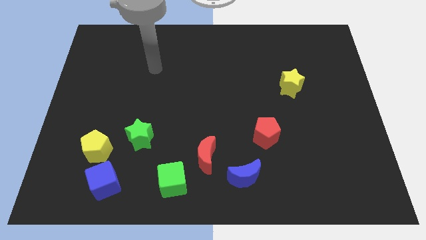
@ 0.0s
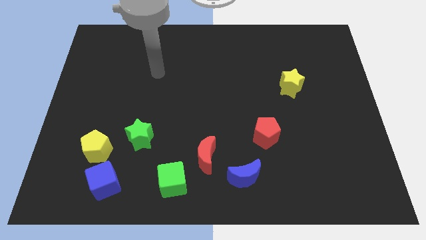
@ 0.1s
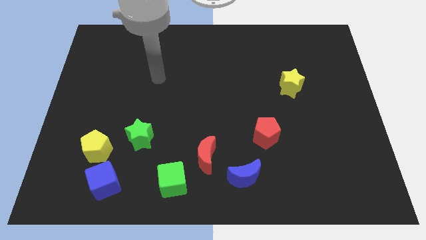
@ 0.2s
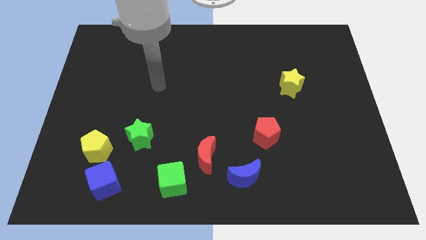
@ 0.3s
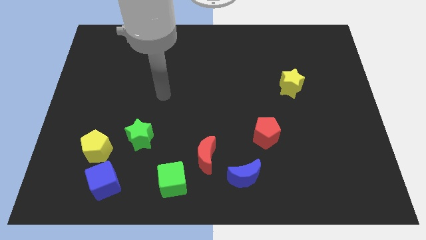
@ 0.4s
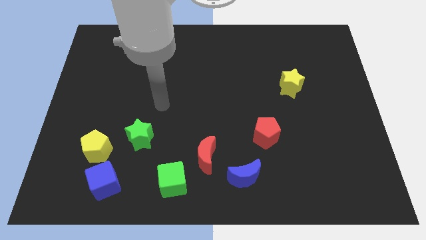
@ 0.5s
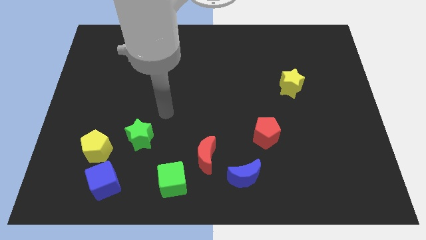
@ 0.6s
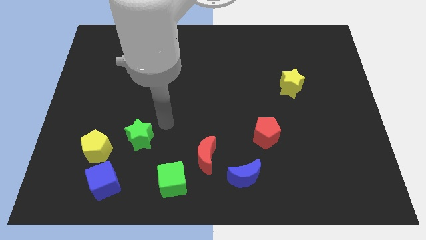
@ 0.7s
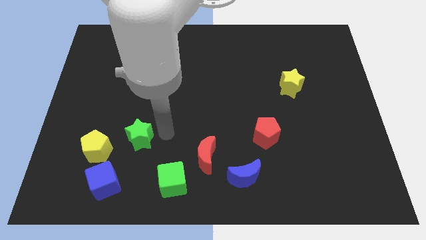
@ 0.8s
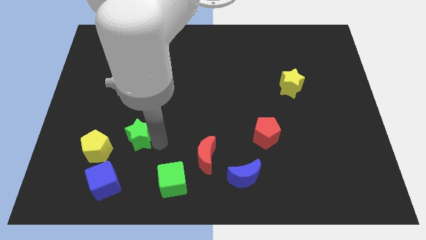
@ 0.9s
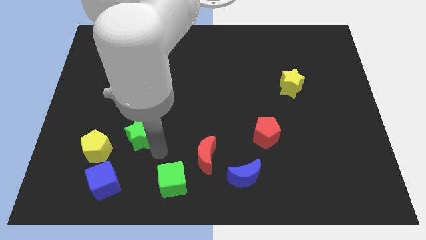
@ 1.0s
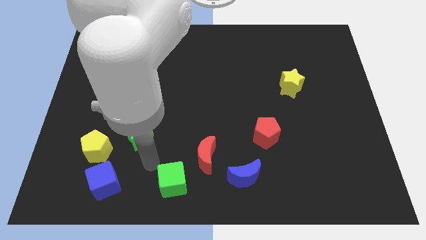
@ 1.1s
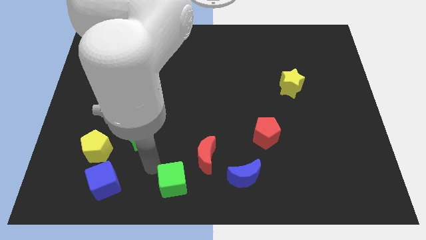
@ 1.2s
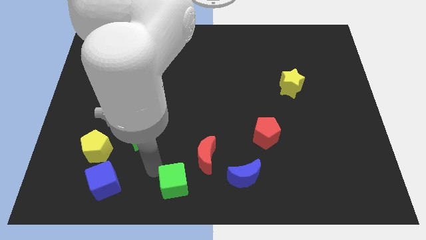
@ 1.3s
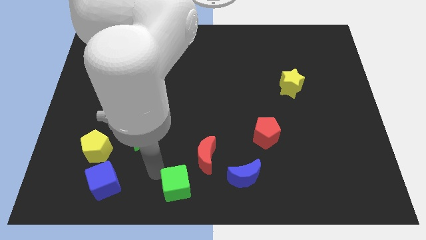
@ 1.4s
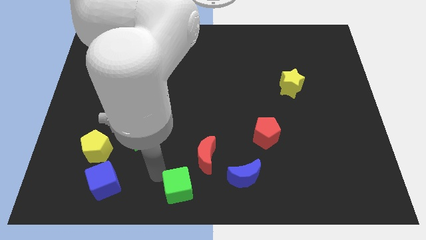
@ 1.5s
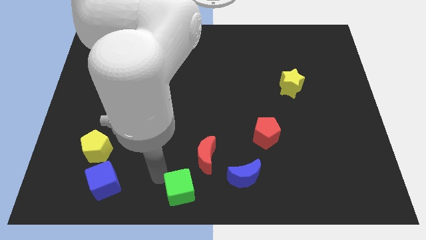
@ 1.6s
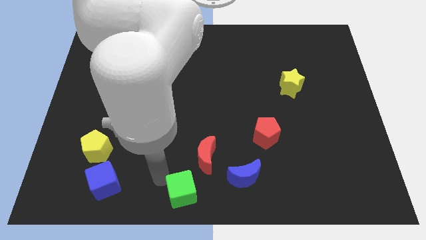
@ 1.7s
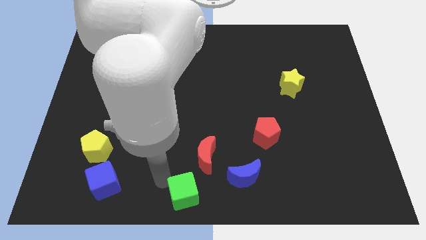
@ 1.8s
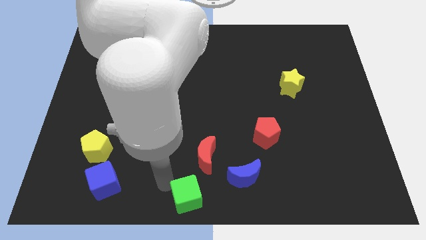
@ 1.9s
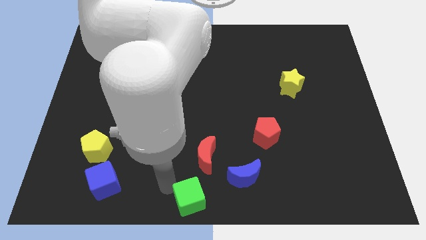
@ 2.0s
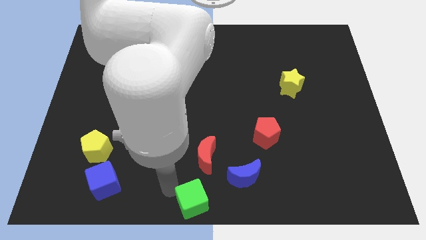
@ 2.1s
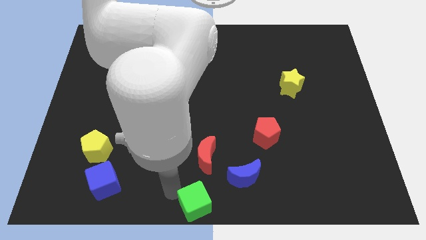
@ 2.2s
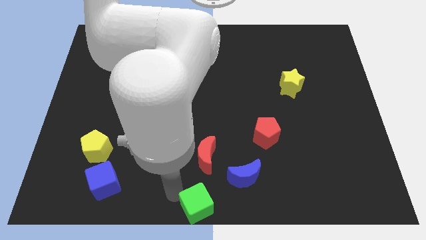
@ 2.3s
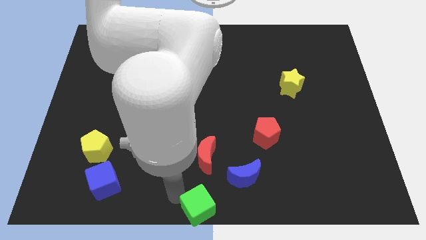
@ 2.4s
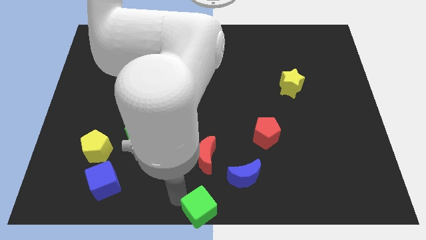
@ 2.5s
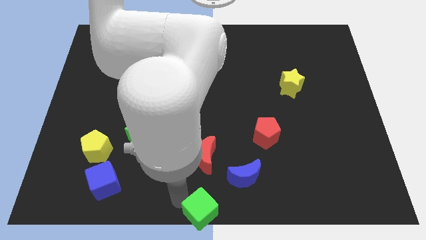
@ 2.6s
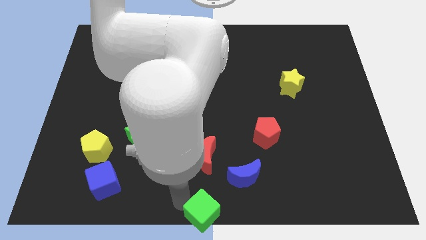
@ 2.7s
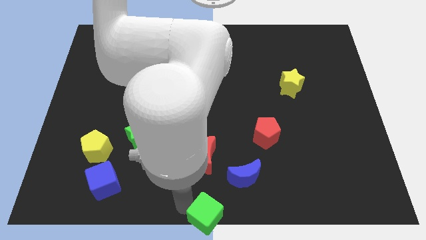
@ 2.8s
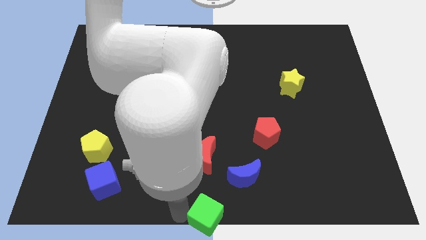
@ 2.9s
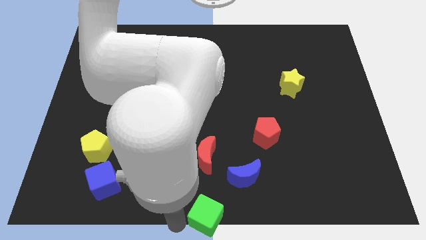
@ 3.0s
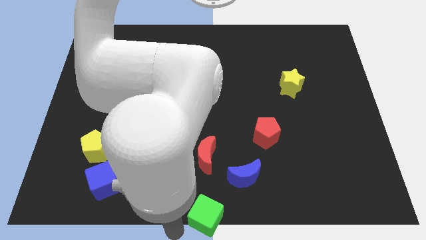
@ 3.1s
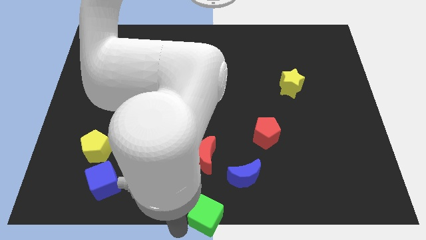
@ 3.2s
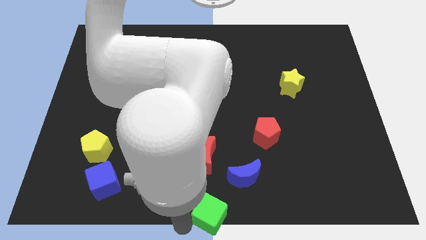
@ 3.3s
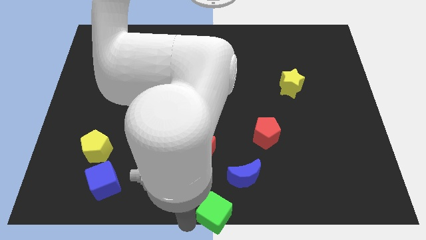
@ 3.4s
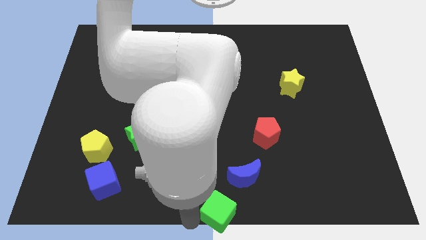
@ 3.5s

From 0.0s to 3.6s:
move the green cube right somewhat

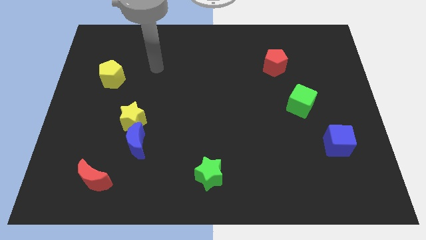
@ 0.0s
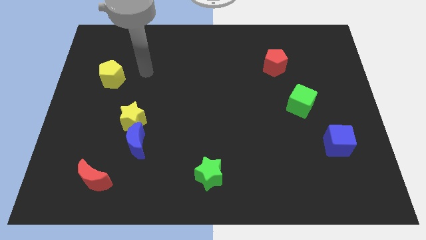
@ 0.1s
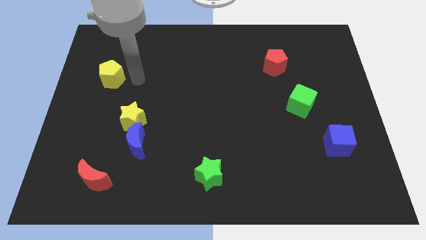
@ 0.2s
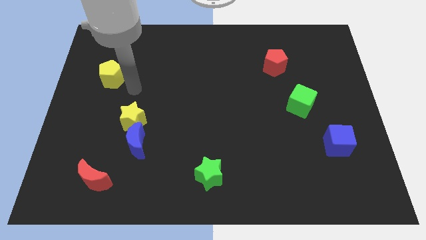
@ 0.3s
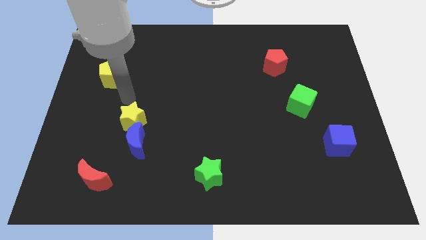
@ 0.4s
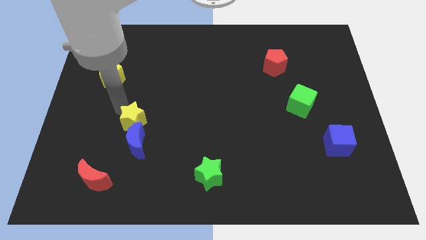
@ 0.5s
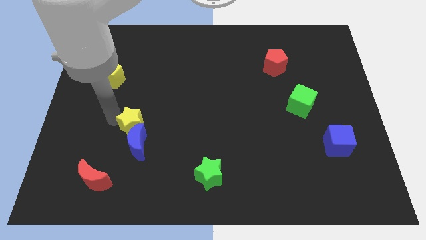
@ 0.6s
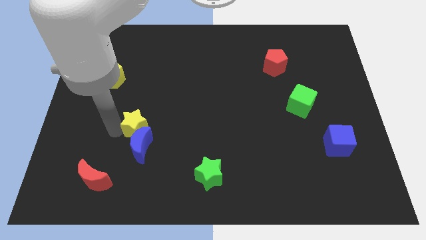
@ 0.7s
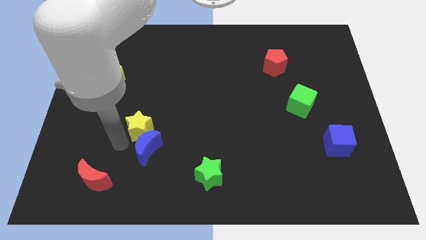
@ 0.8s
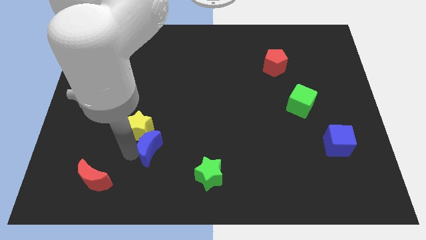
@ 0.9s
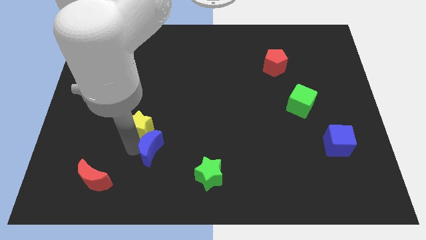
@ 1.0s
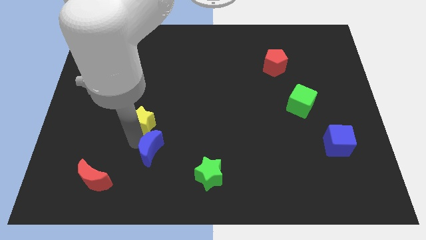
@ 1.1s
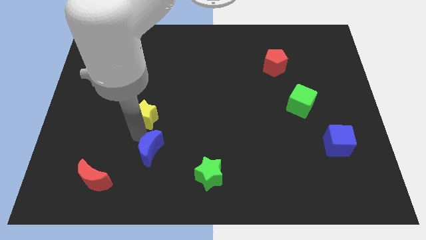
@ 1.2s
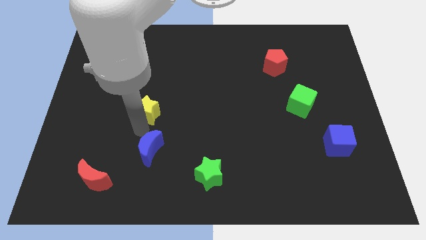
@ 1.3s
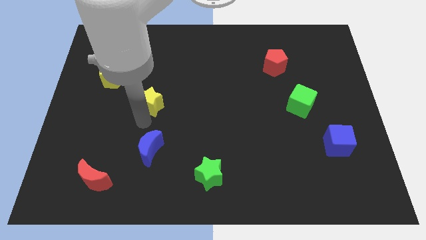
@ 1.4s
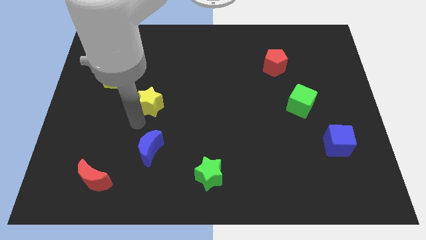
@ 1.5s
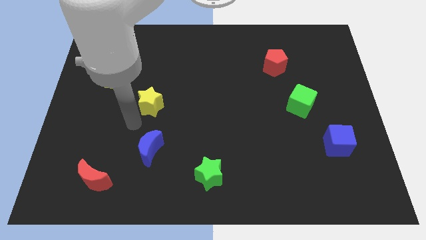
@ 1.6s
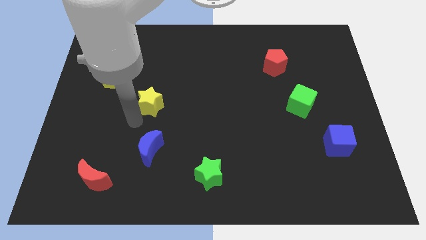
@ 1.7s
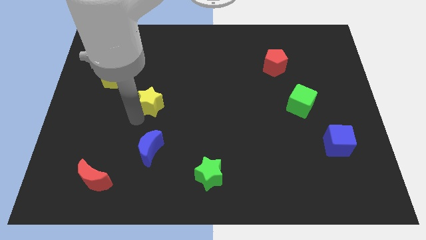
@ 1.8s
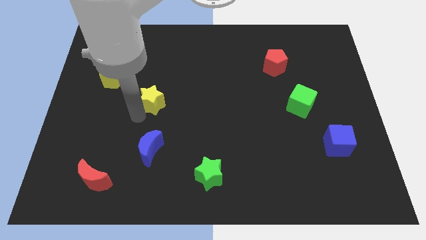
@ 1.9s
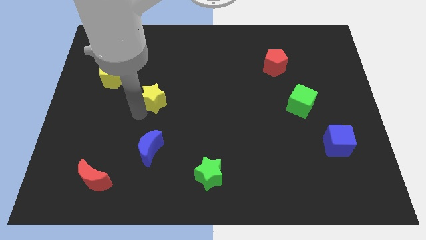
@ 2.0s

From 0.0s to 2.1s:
push the yellow star diagonally up and right a little

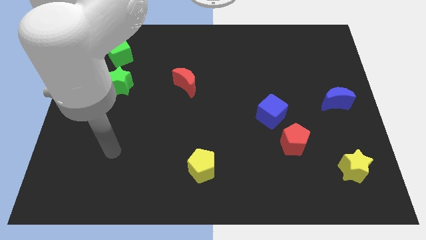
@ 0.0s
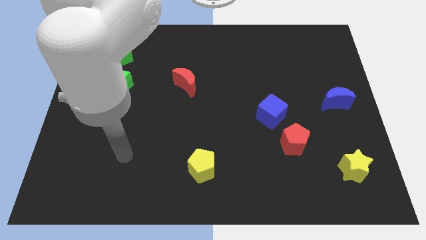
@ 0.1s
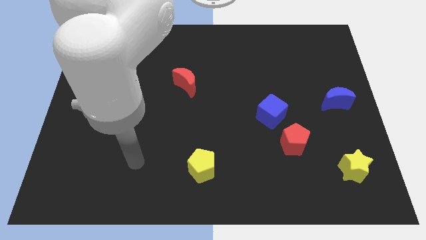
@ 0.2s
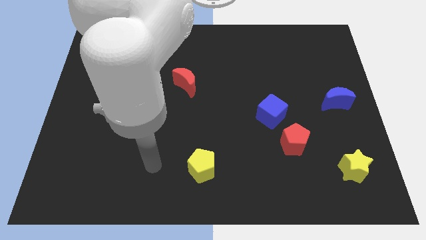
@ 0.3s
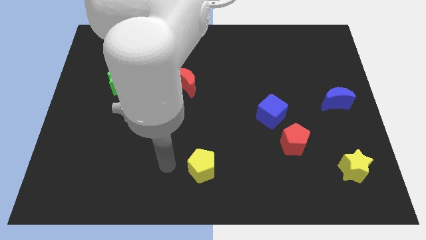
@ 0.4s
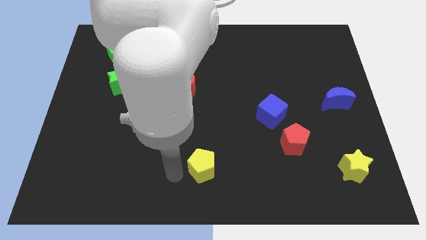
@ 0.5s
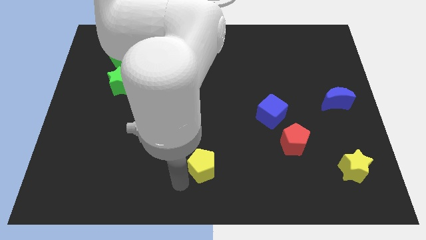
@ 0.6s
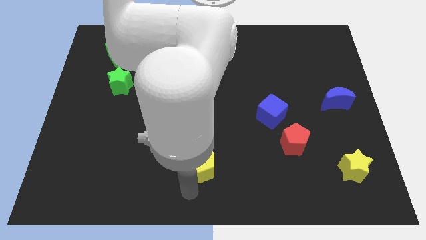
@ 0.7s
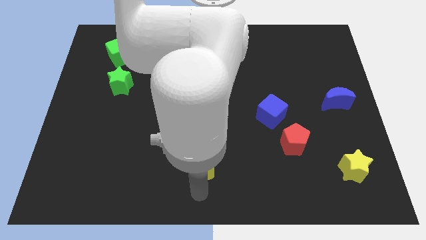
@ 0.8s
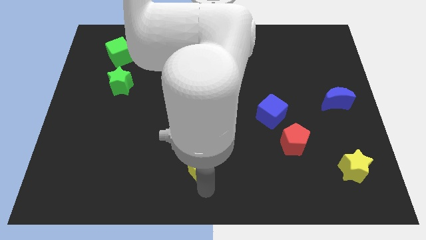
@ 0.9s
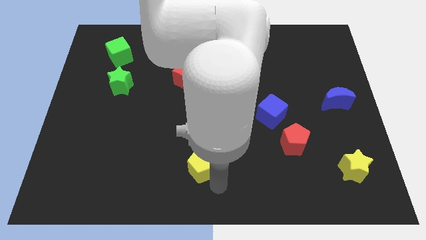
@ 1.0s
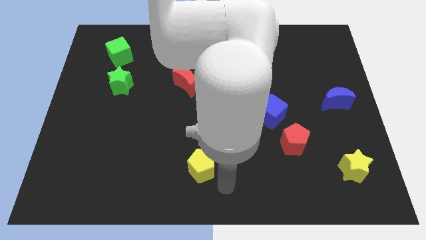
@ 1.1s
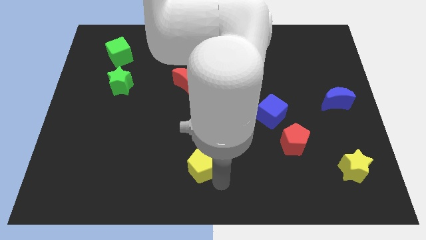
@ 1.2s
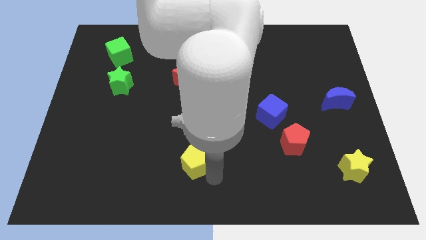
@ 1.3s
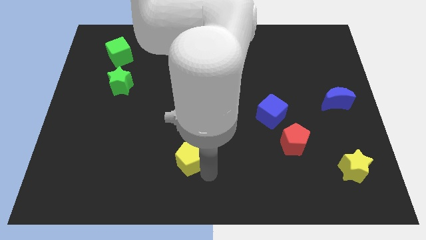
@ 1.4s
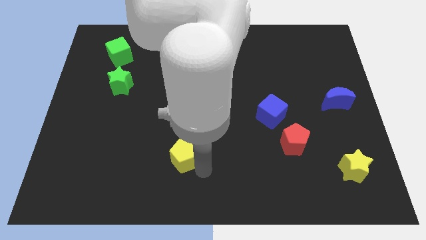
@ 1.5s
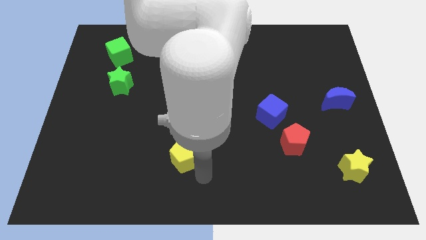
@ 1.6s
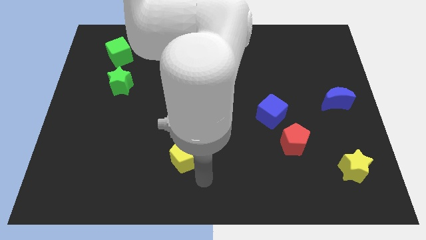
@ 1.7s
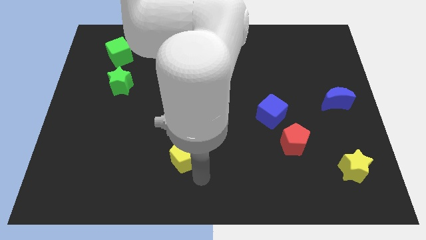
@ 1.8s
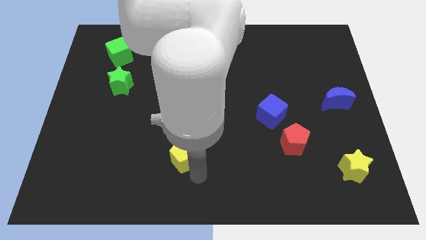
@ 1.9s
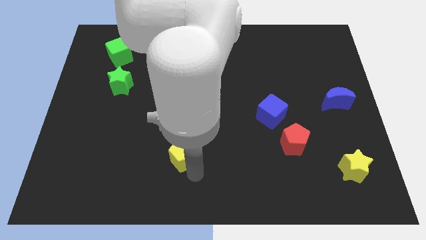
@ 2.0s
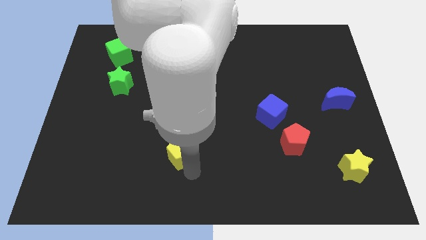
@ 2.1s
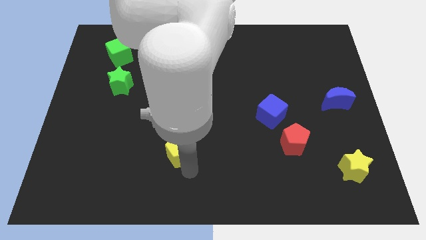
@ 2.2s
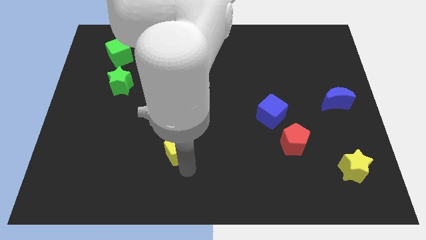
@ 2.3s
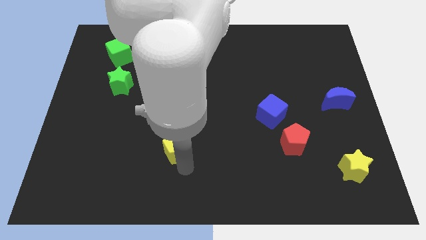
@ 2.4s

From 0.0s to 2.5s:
slightly slide the yellow pentagon diagonally up and left
